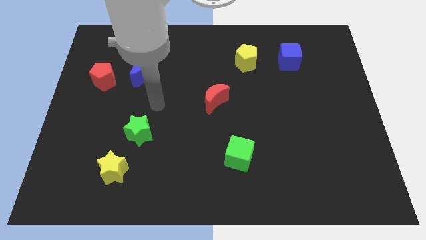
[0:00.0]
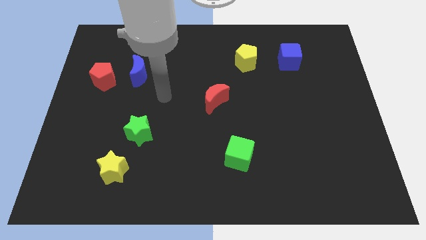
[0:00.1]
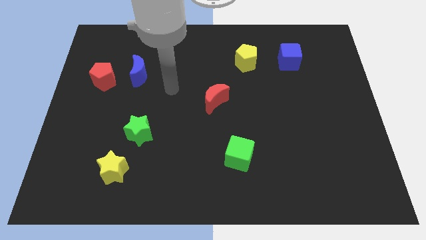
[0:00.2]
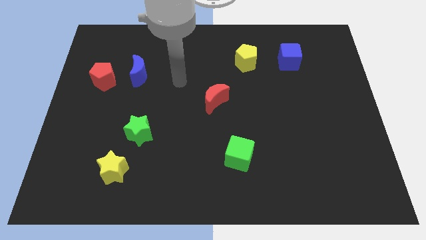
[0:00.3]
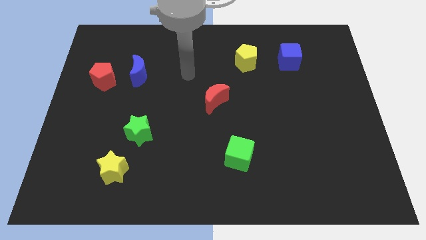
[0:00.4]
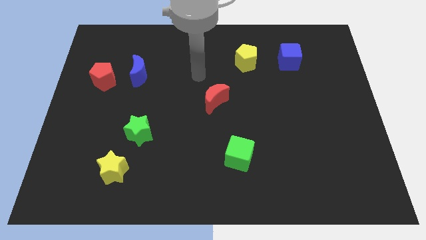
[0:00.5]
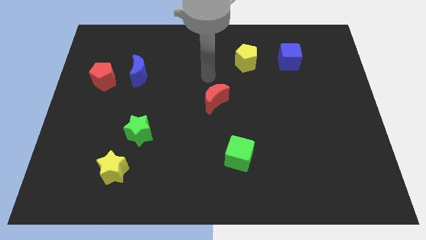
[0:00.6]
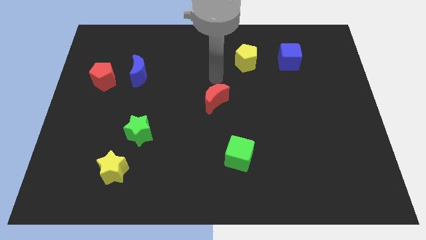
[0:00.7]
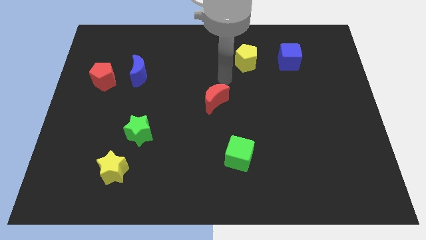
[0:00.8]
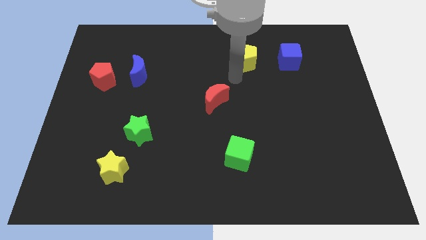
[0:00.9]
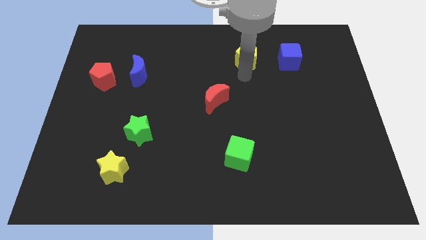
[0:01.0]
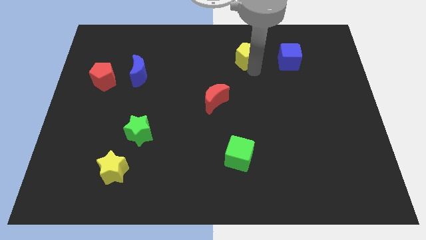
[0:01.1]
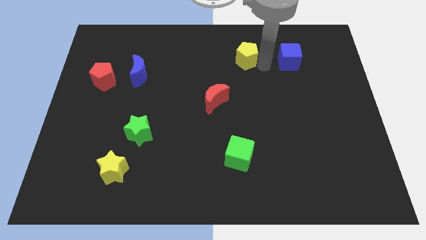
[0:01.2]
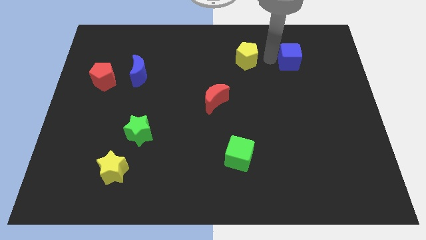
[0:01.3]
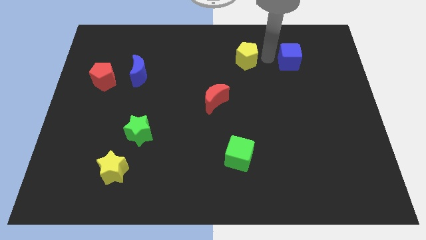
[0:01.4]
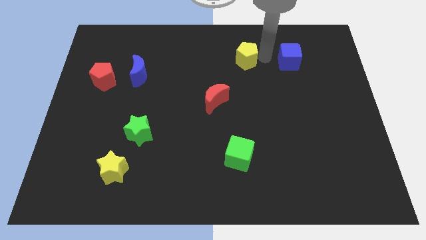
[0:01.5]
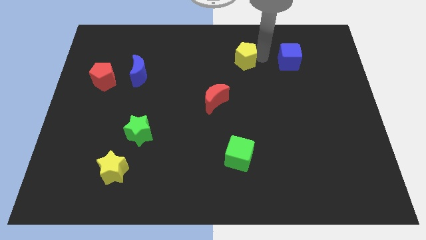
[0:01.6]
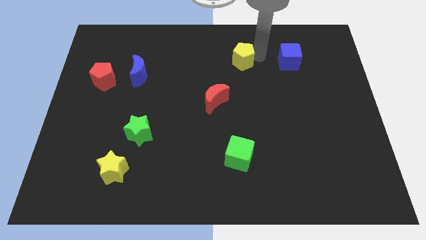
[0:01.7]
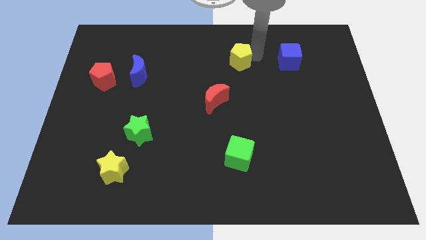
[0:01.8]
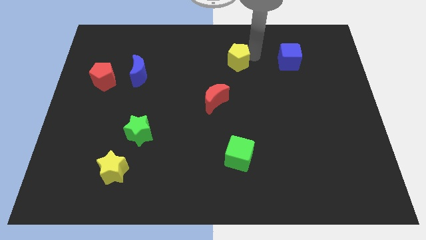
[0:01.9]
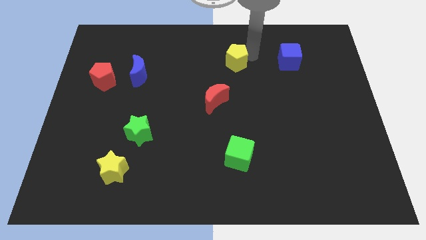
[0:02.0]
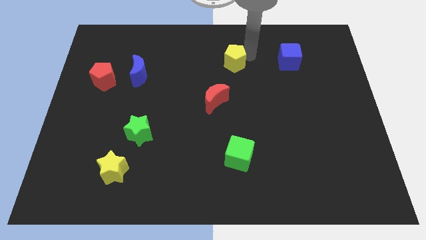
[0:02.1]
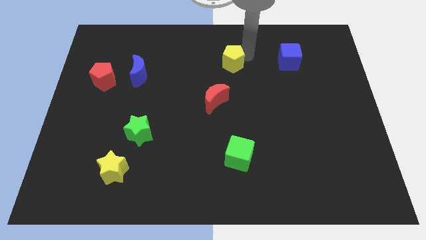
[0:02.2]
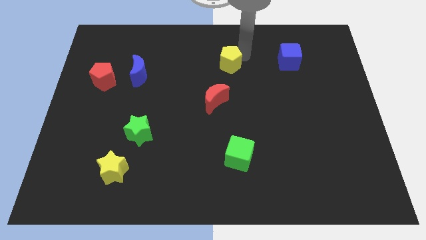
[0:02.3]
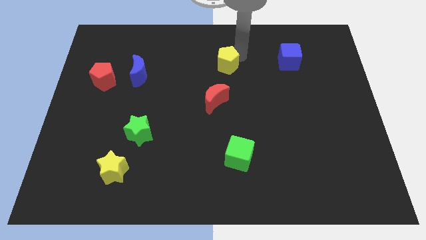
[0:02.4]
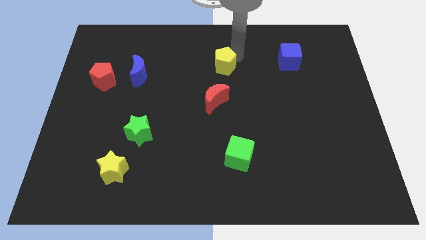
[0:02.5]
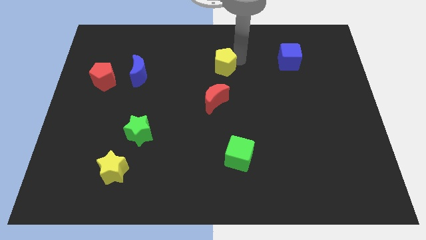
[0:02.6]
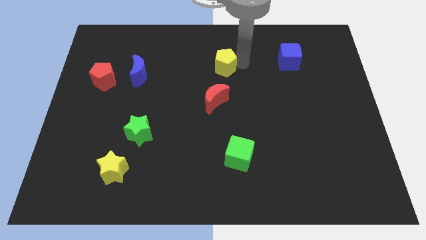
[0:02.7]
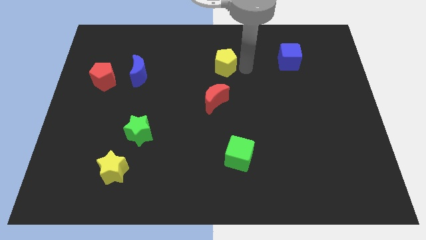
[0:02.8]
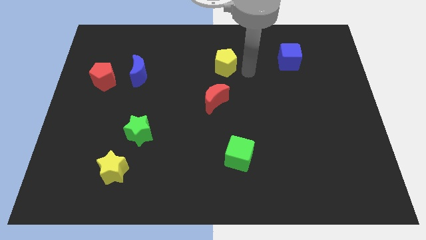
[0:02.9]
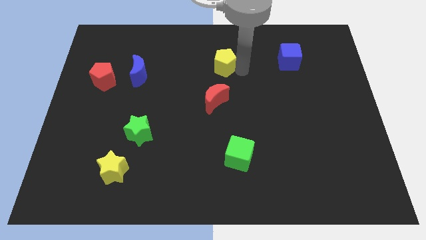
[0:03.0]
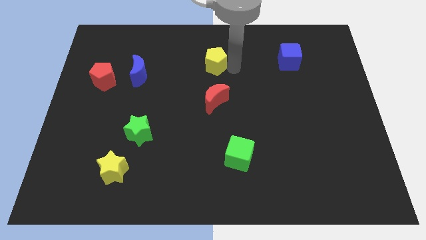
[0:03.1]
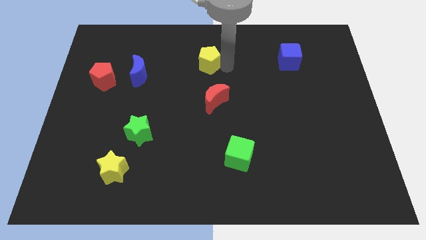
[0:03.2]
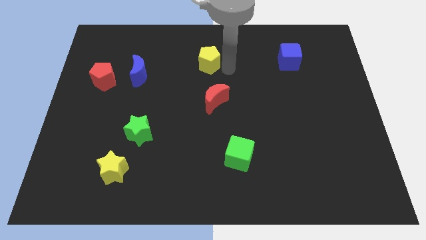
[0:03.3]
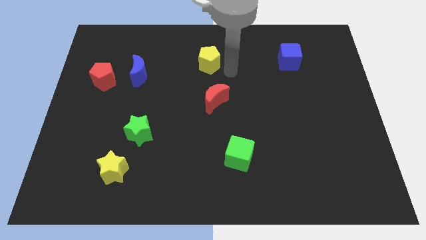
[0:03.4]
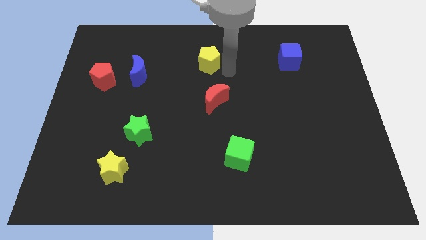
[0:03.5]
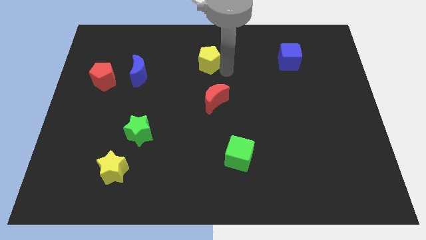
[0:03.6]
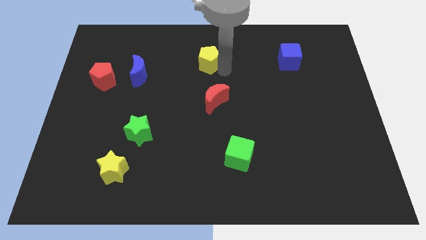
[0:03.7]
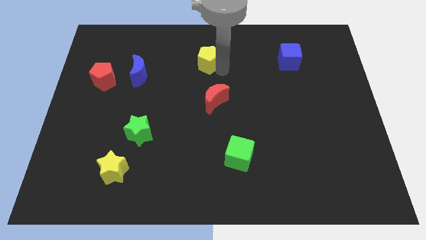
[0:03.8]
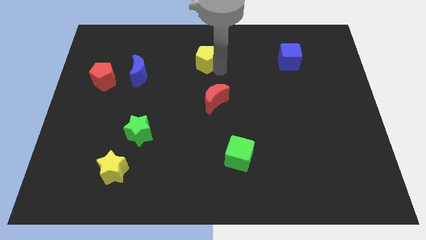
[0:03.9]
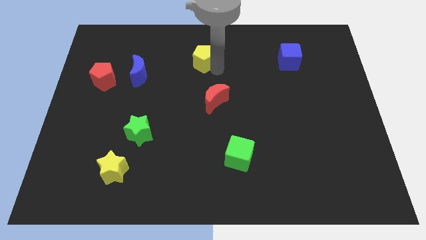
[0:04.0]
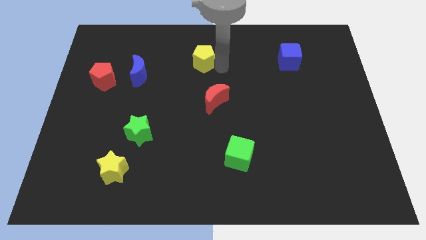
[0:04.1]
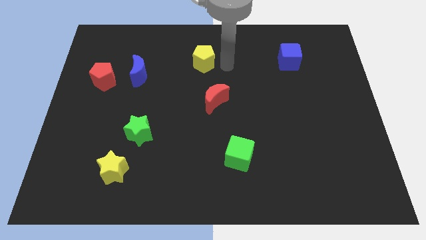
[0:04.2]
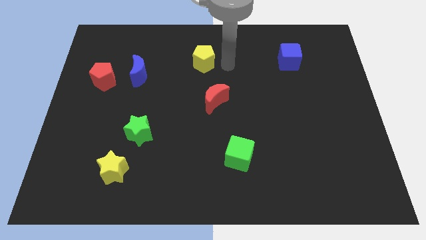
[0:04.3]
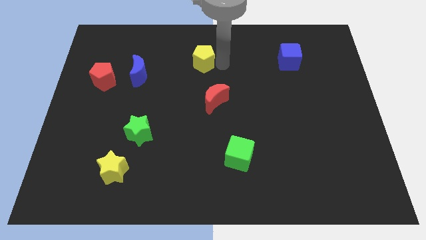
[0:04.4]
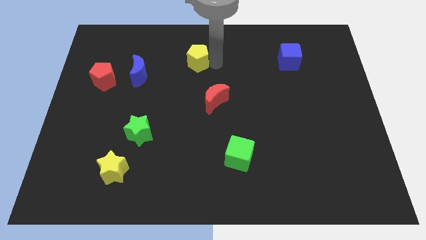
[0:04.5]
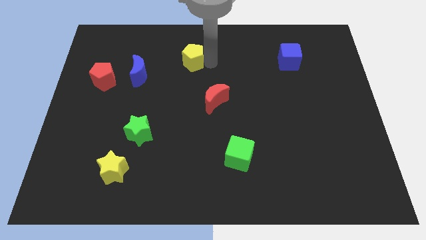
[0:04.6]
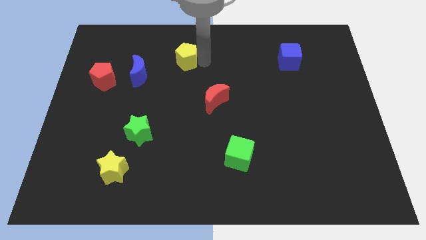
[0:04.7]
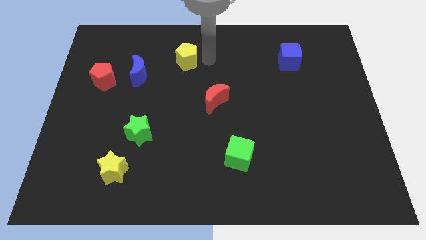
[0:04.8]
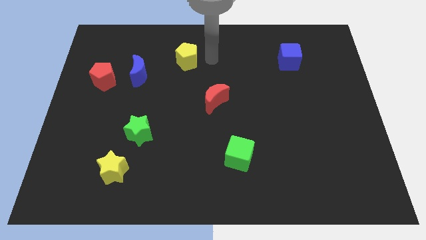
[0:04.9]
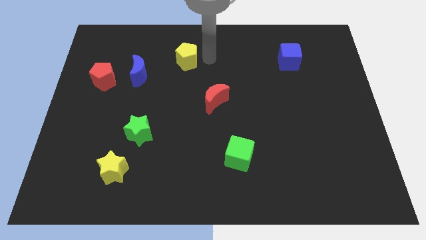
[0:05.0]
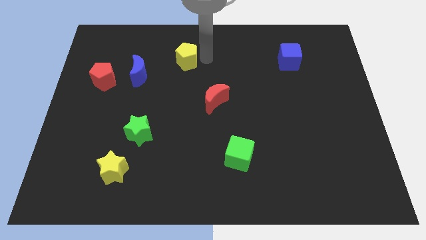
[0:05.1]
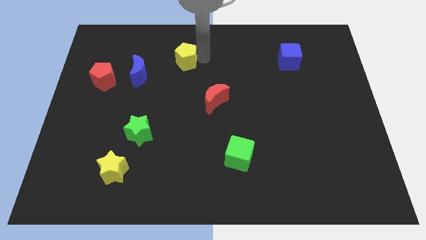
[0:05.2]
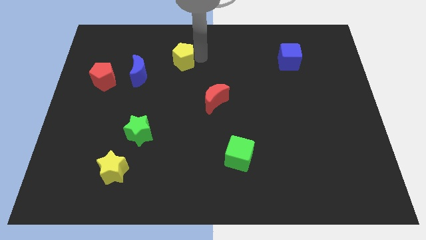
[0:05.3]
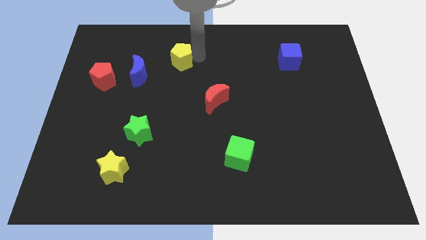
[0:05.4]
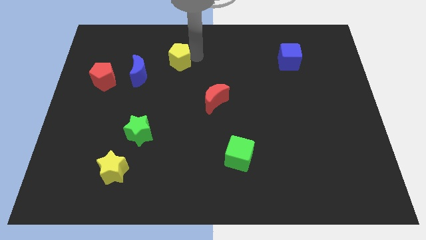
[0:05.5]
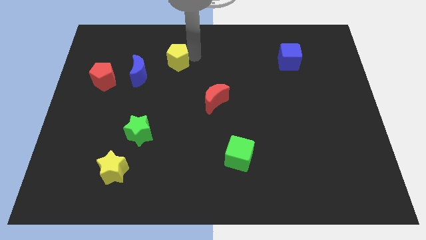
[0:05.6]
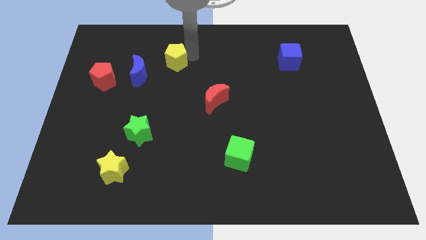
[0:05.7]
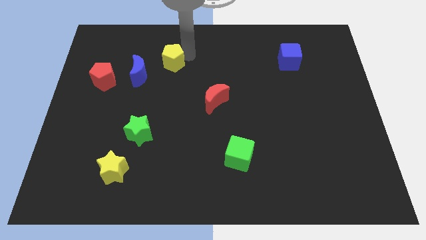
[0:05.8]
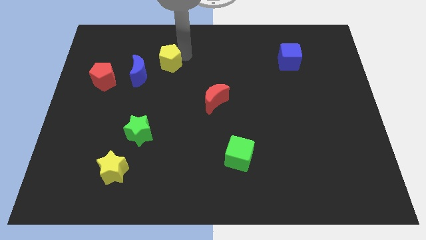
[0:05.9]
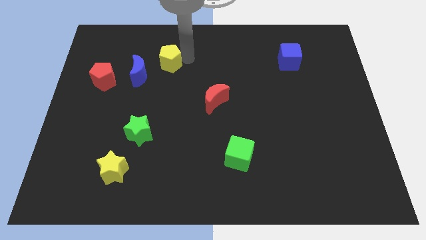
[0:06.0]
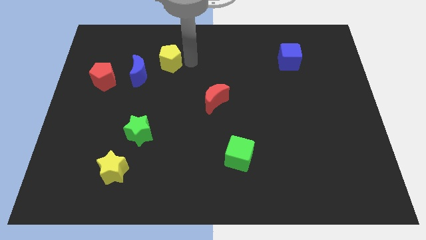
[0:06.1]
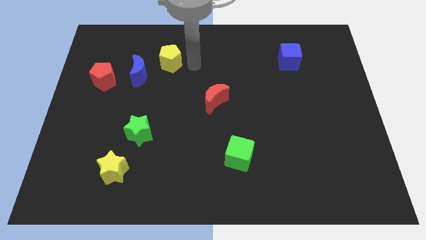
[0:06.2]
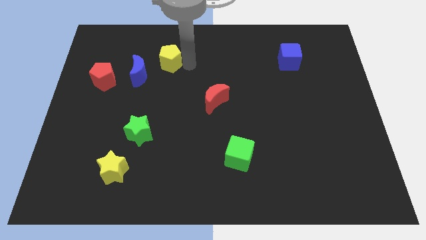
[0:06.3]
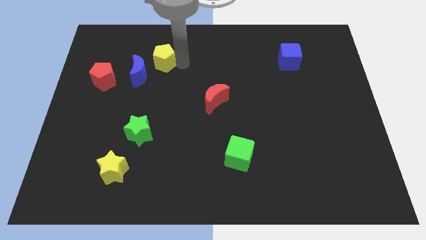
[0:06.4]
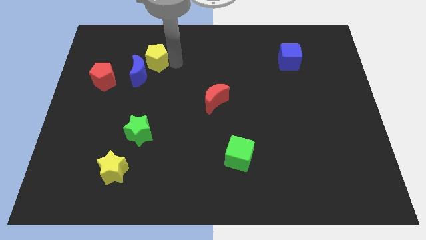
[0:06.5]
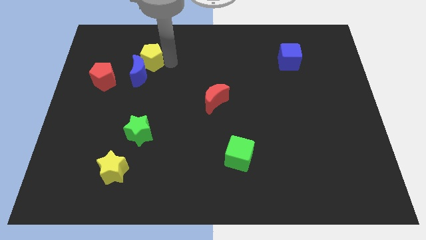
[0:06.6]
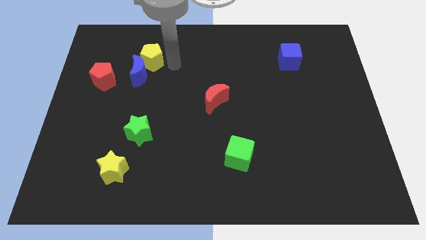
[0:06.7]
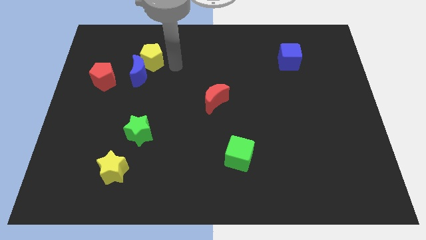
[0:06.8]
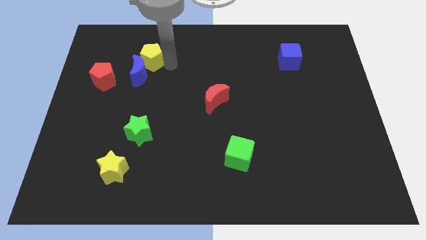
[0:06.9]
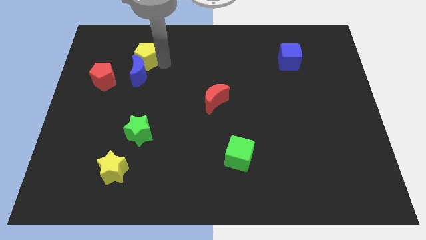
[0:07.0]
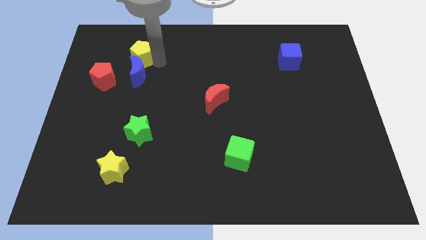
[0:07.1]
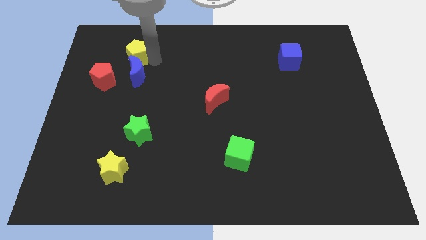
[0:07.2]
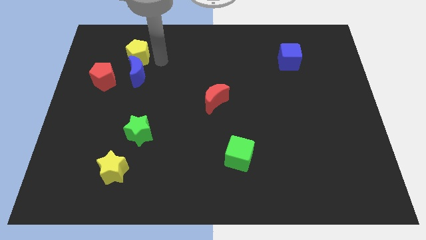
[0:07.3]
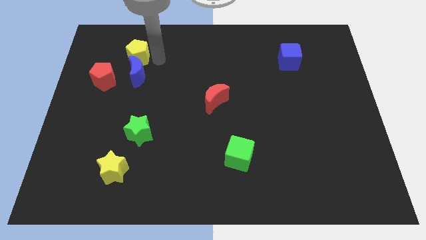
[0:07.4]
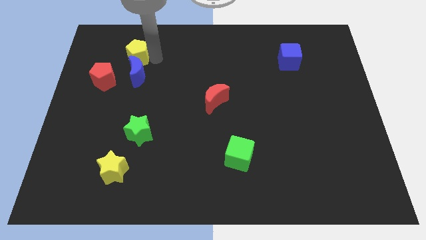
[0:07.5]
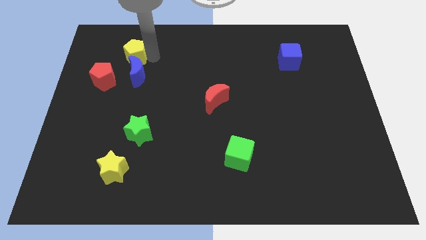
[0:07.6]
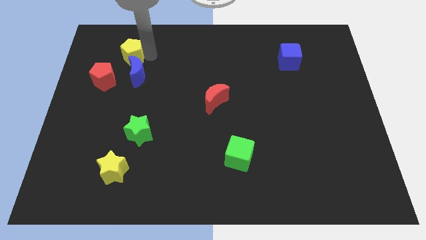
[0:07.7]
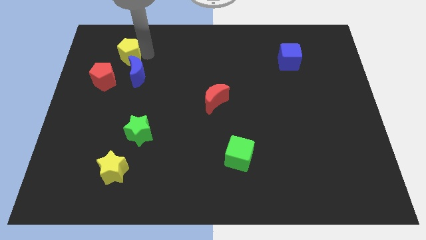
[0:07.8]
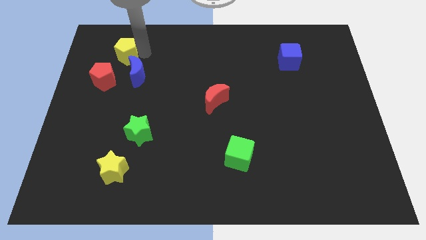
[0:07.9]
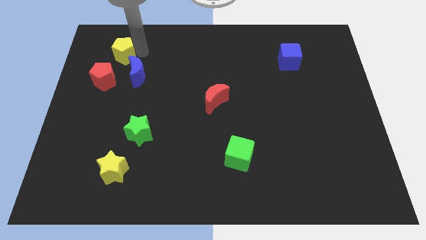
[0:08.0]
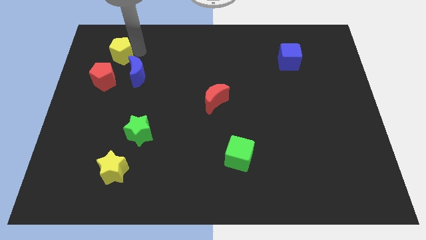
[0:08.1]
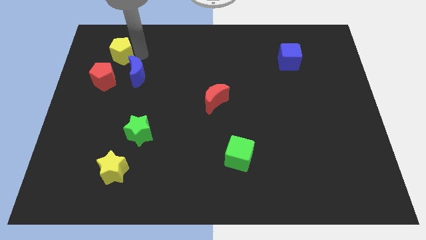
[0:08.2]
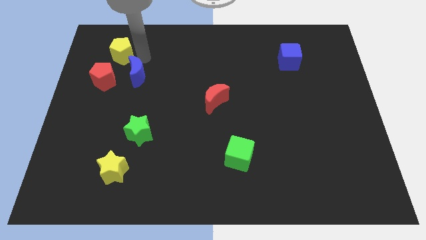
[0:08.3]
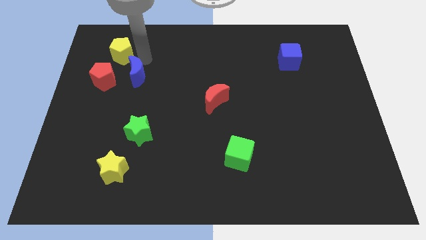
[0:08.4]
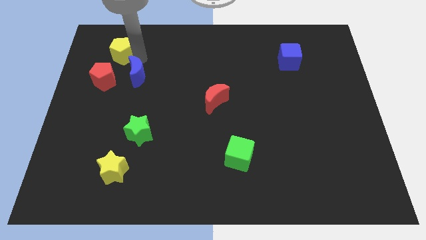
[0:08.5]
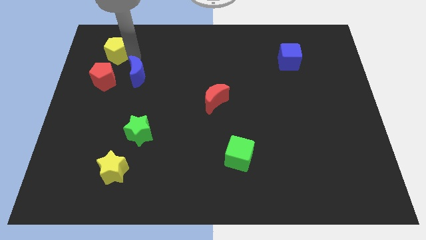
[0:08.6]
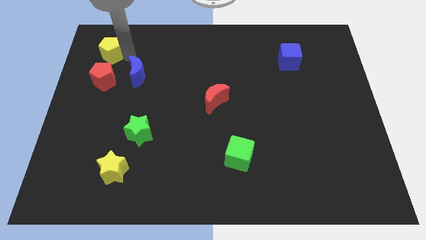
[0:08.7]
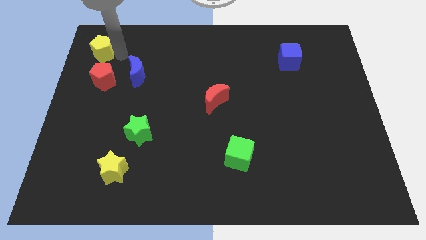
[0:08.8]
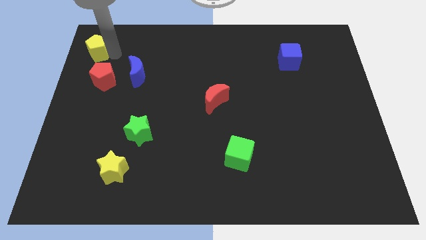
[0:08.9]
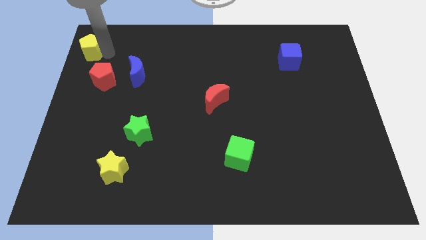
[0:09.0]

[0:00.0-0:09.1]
slide the yellow pentagon to the top left
